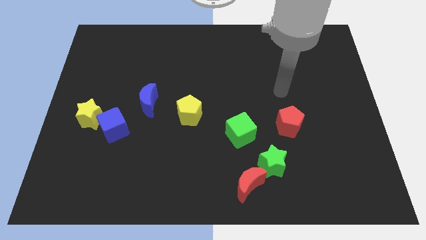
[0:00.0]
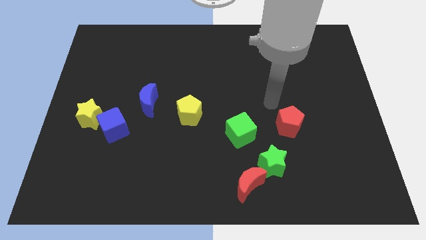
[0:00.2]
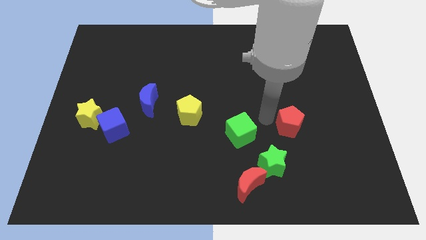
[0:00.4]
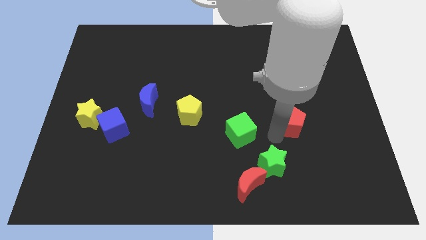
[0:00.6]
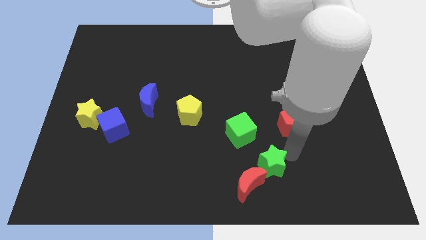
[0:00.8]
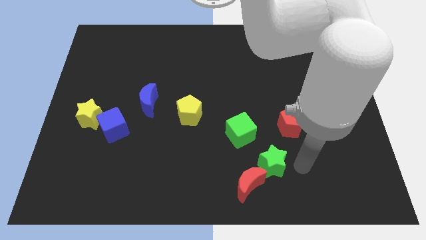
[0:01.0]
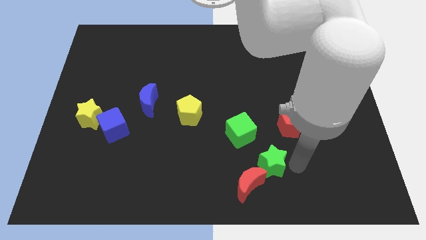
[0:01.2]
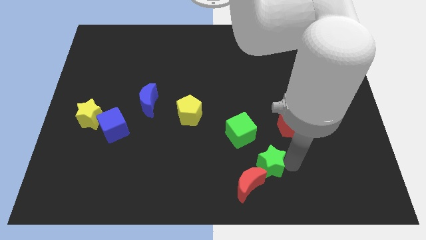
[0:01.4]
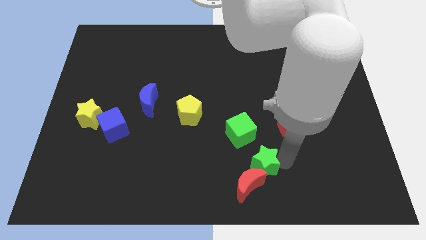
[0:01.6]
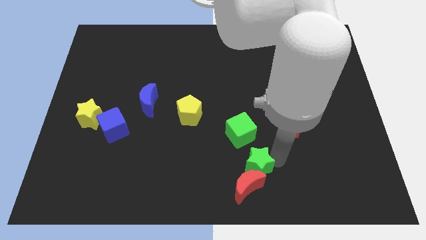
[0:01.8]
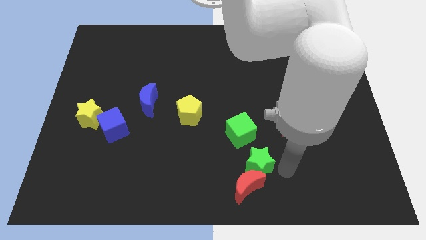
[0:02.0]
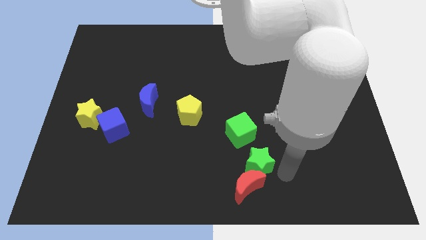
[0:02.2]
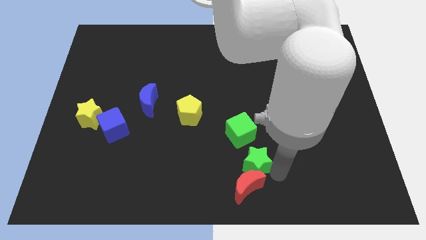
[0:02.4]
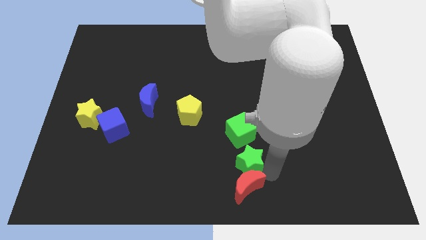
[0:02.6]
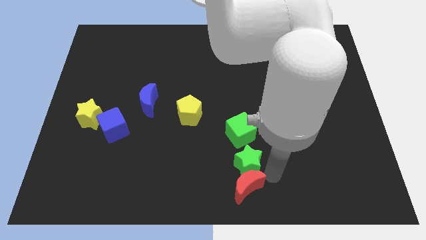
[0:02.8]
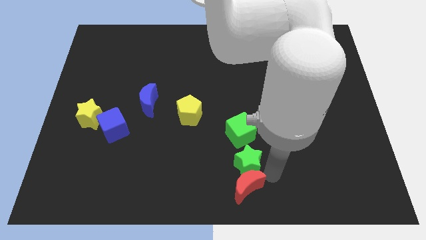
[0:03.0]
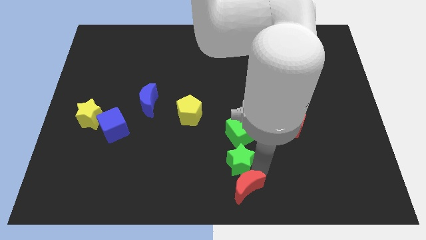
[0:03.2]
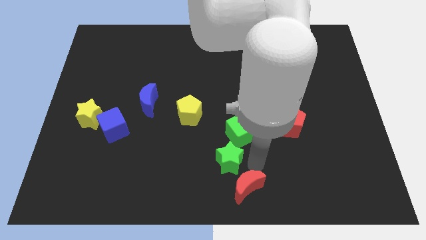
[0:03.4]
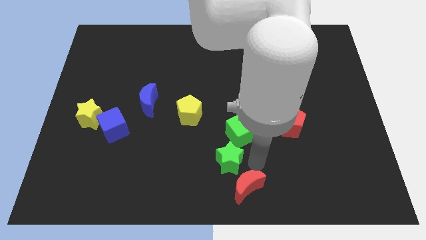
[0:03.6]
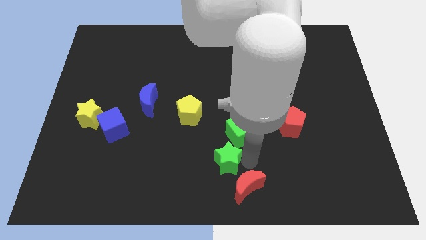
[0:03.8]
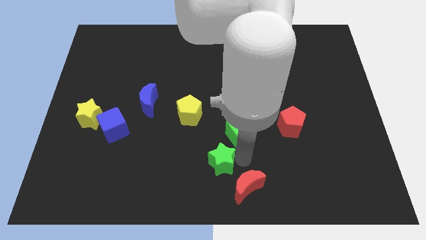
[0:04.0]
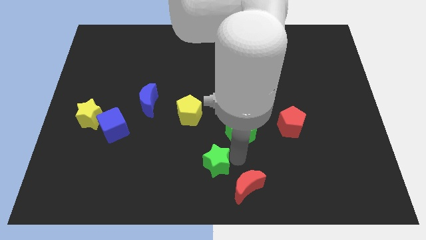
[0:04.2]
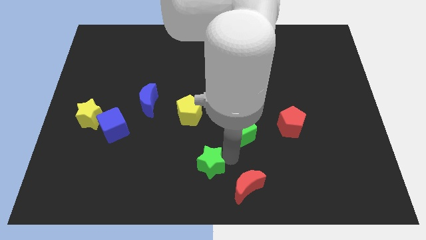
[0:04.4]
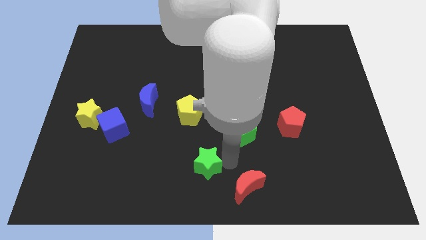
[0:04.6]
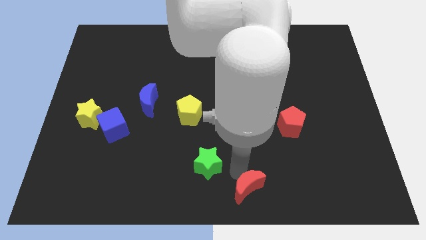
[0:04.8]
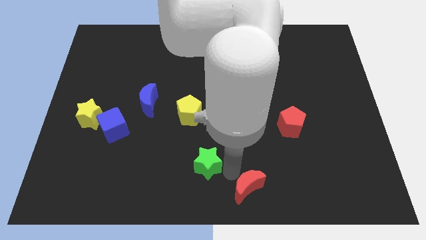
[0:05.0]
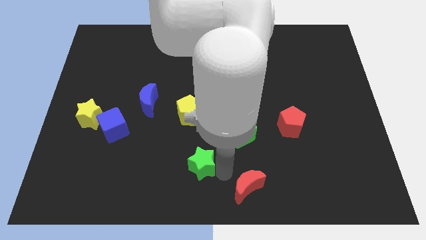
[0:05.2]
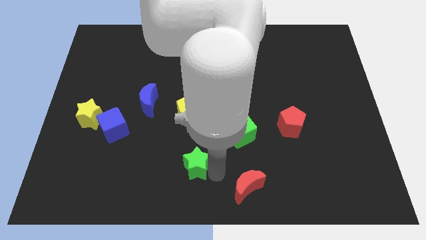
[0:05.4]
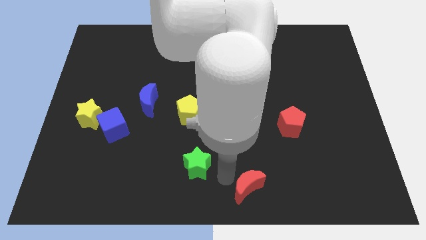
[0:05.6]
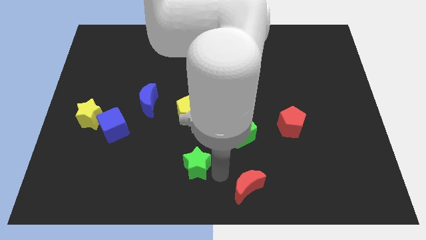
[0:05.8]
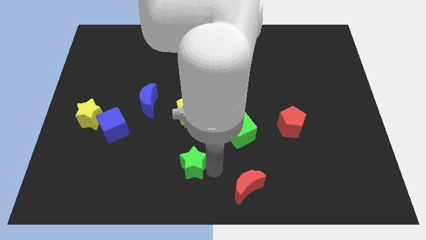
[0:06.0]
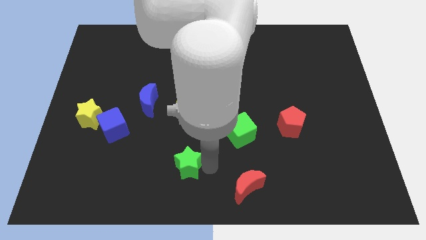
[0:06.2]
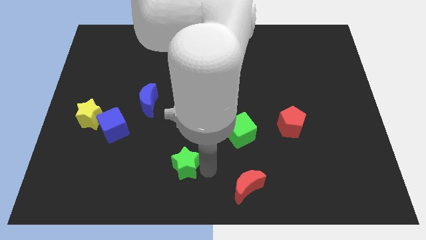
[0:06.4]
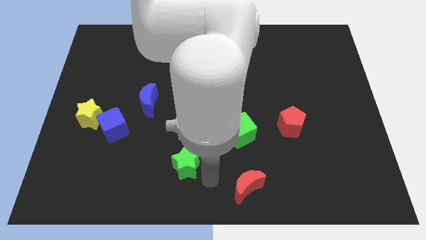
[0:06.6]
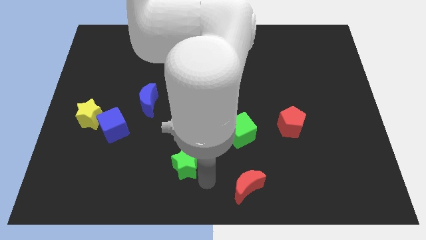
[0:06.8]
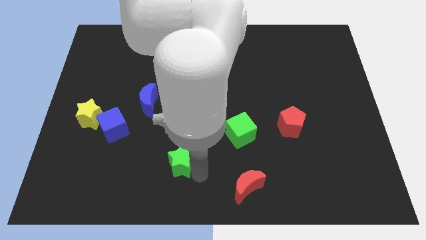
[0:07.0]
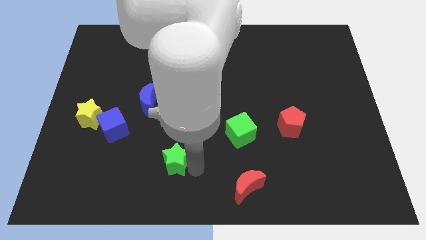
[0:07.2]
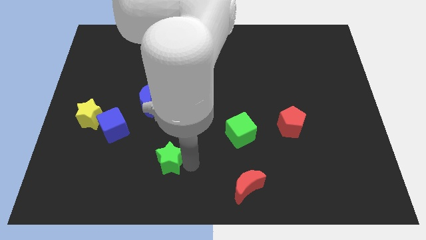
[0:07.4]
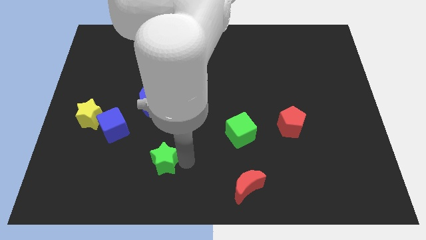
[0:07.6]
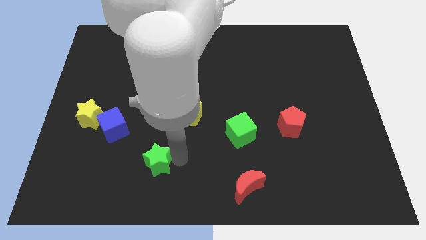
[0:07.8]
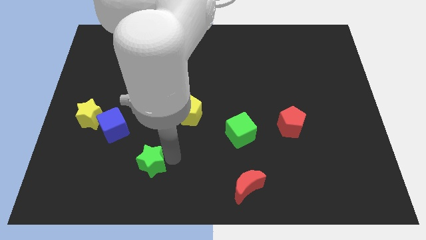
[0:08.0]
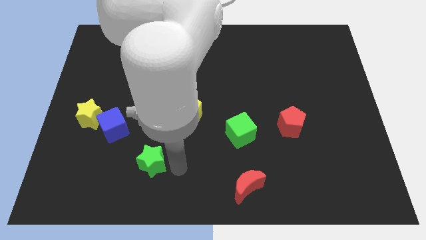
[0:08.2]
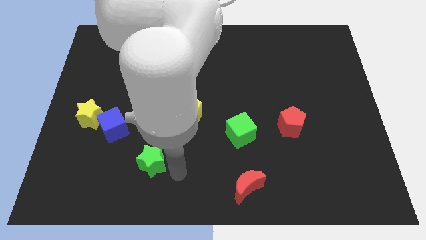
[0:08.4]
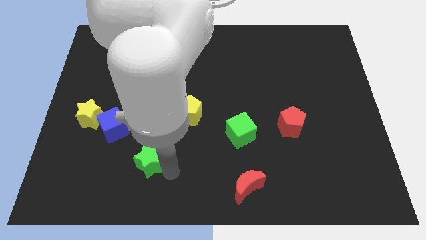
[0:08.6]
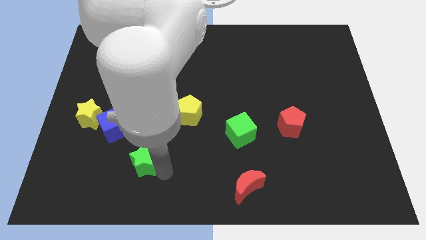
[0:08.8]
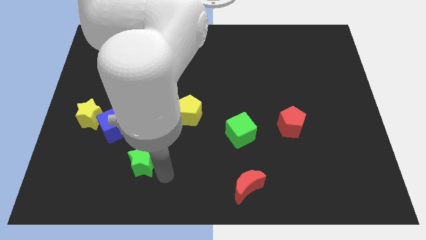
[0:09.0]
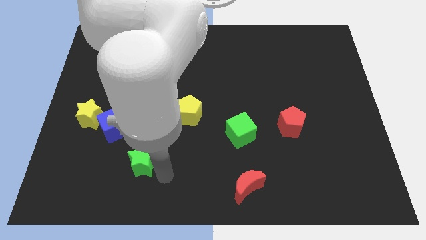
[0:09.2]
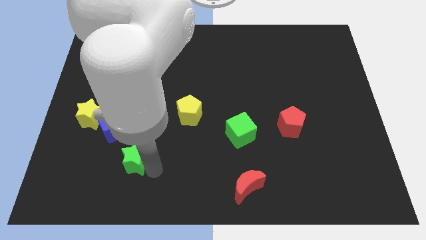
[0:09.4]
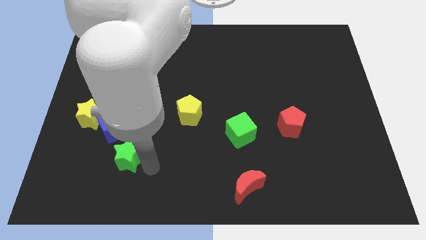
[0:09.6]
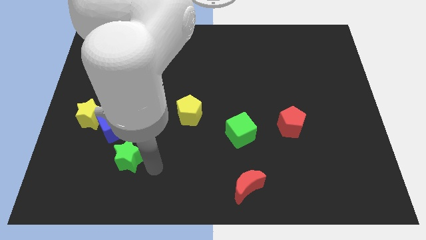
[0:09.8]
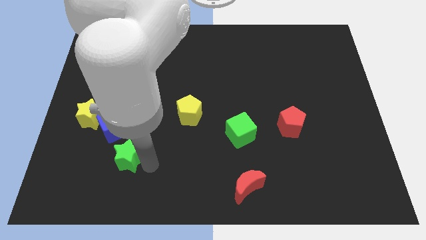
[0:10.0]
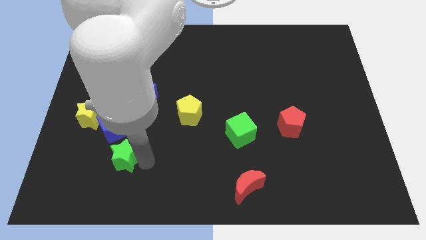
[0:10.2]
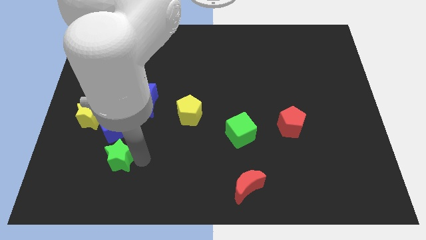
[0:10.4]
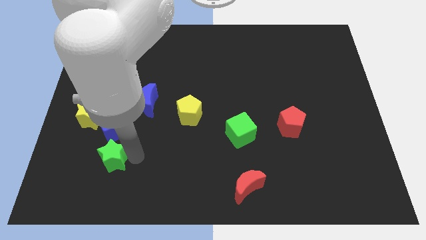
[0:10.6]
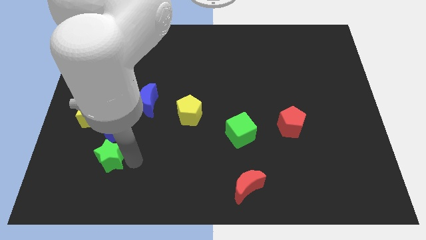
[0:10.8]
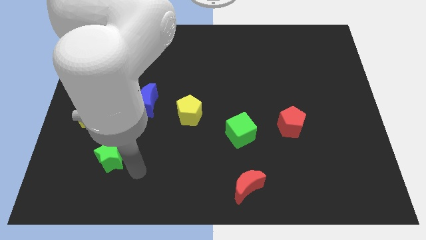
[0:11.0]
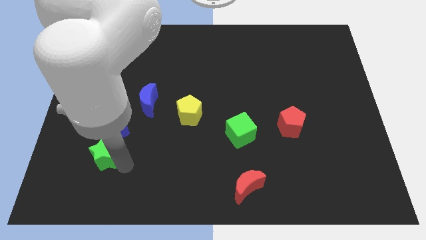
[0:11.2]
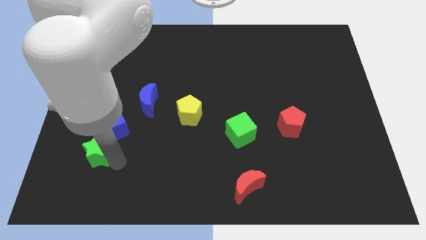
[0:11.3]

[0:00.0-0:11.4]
move the green star to the bottom left side of the blue cube

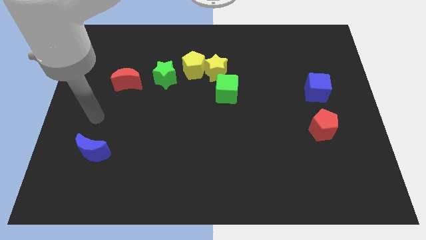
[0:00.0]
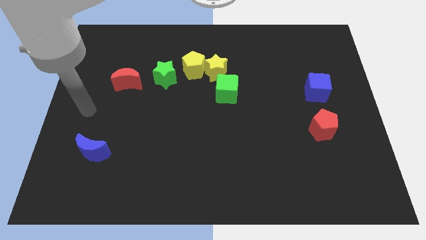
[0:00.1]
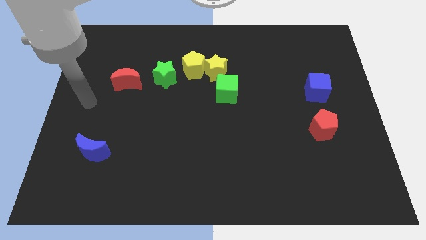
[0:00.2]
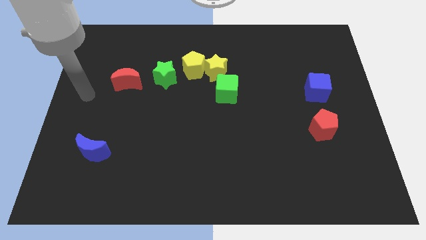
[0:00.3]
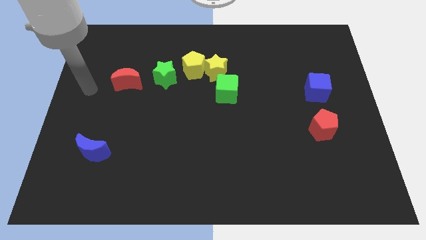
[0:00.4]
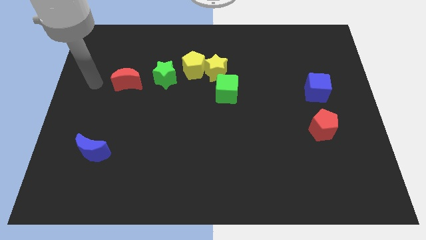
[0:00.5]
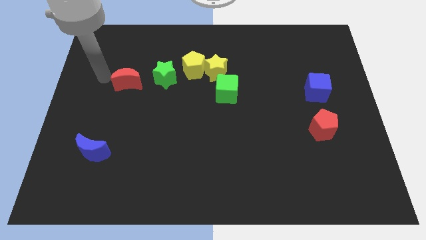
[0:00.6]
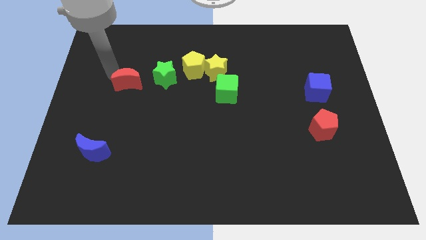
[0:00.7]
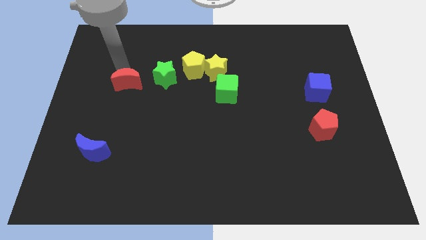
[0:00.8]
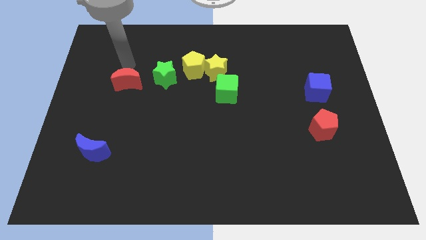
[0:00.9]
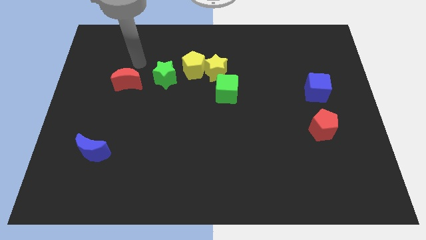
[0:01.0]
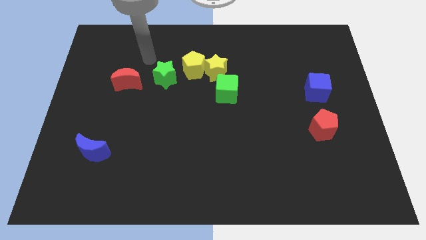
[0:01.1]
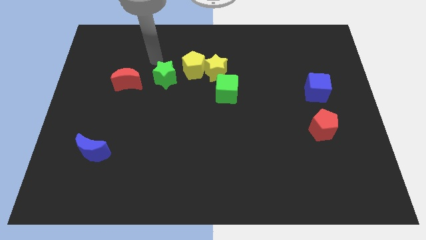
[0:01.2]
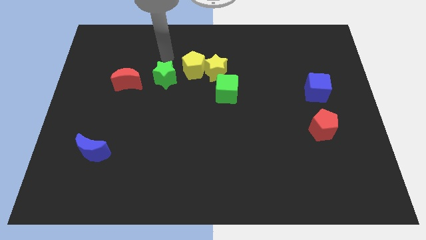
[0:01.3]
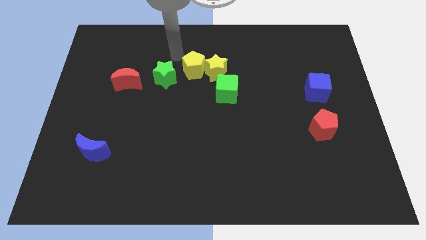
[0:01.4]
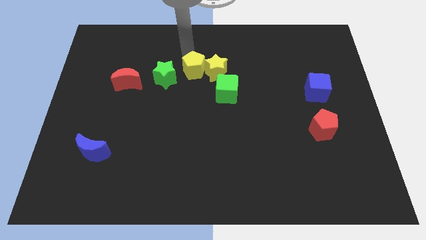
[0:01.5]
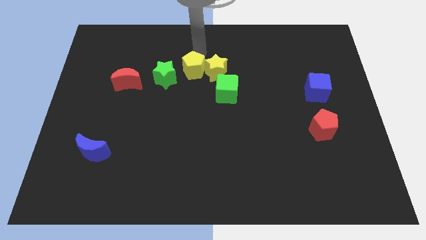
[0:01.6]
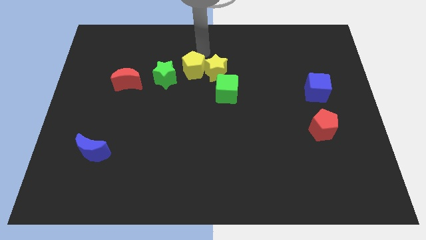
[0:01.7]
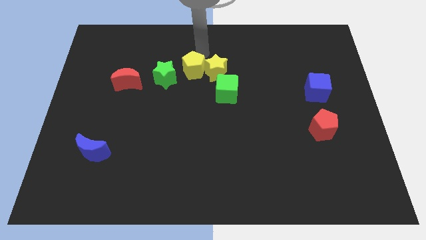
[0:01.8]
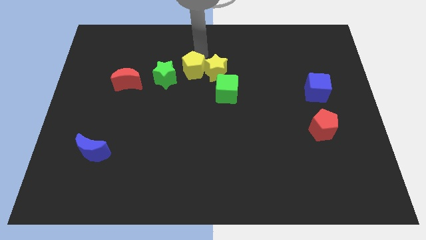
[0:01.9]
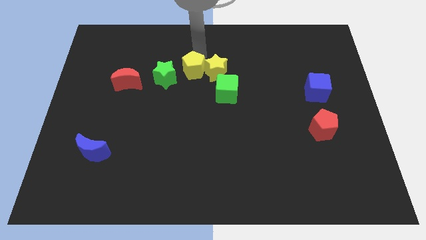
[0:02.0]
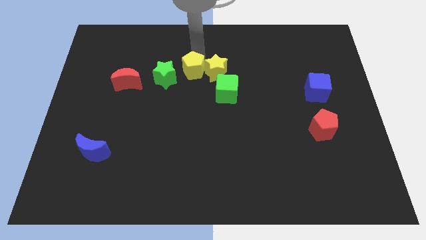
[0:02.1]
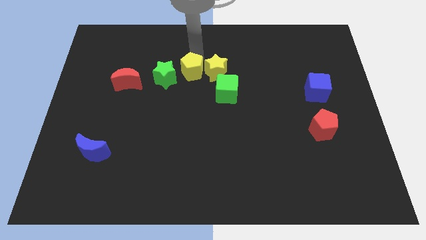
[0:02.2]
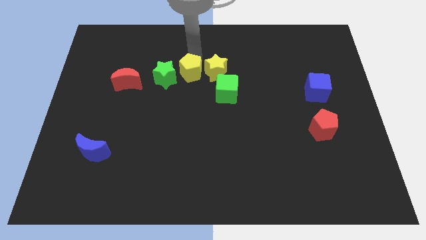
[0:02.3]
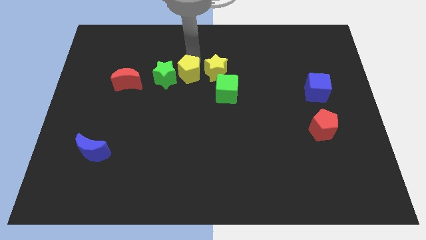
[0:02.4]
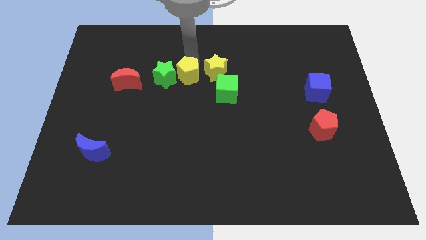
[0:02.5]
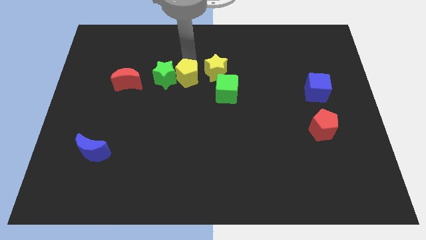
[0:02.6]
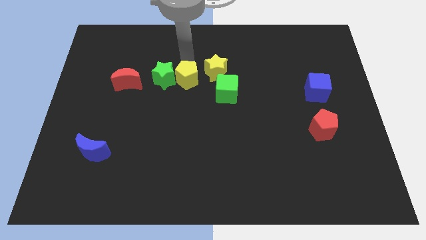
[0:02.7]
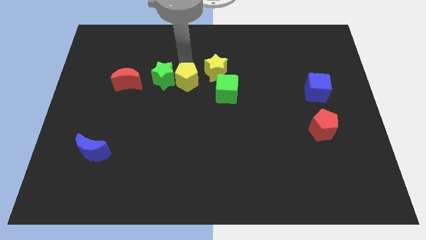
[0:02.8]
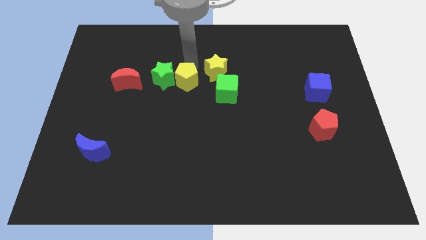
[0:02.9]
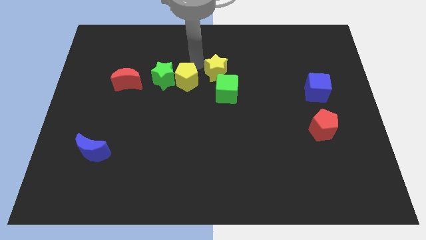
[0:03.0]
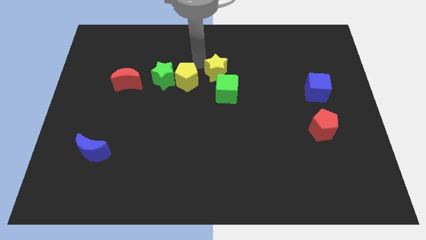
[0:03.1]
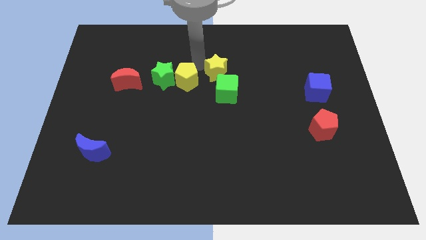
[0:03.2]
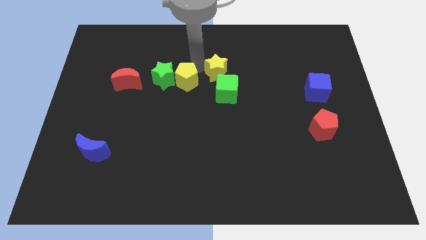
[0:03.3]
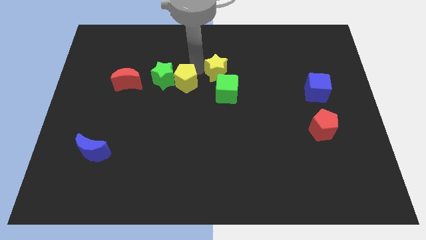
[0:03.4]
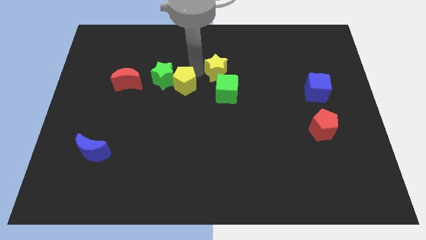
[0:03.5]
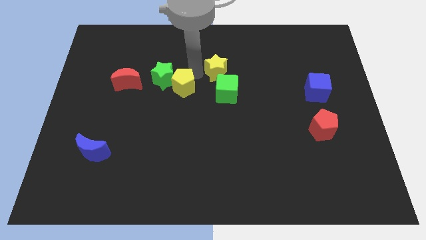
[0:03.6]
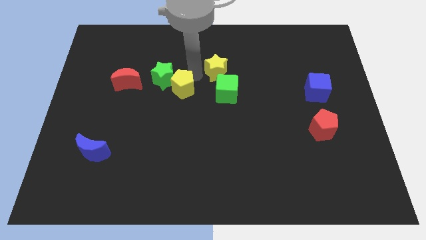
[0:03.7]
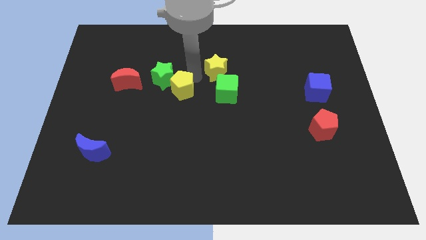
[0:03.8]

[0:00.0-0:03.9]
put the yellow pentagon to the bottom of the green star
